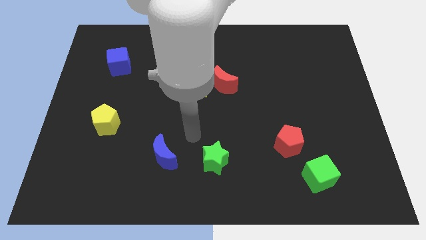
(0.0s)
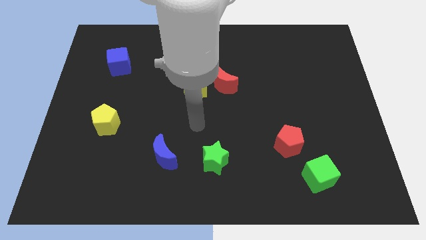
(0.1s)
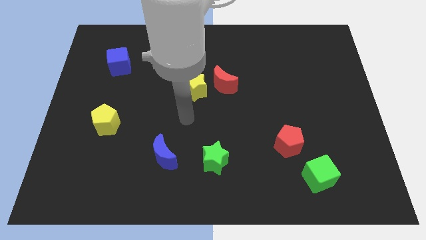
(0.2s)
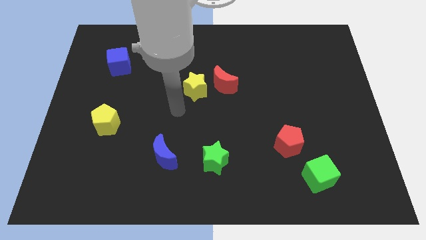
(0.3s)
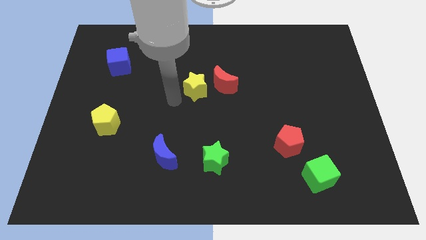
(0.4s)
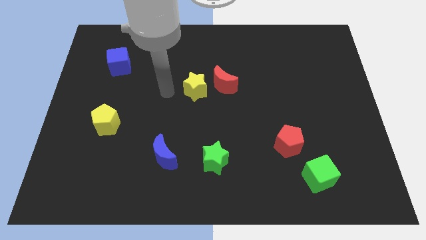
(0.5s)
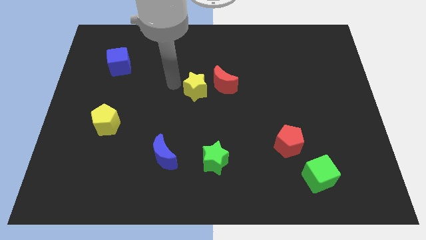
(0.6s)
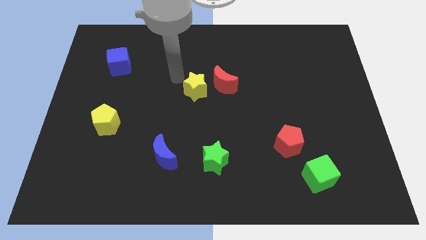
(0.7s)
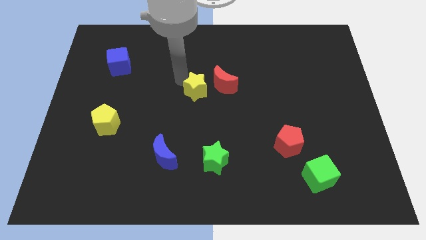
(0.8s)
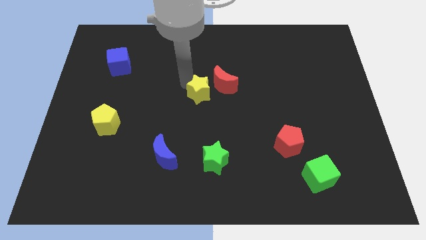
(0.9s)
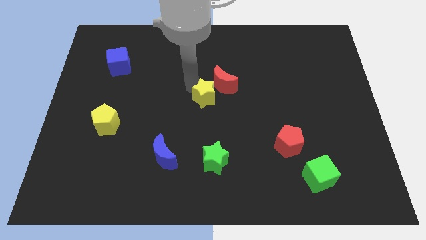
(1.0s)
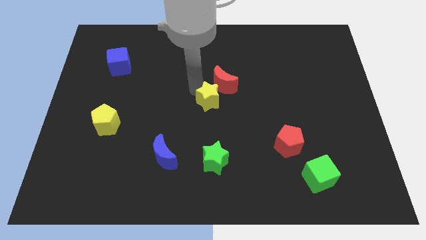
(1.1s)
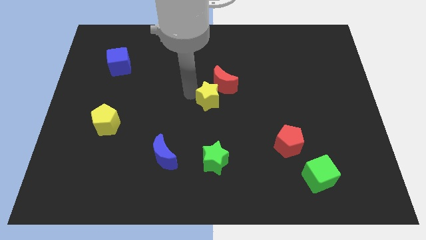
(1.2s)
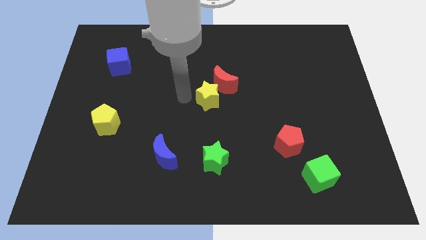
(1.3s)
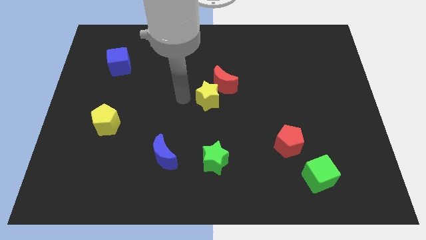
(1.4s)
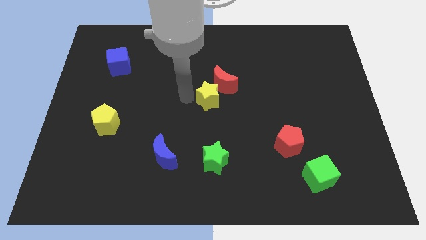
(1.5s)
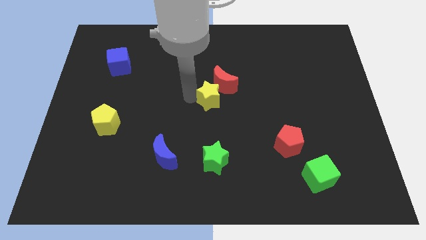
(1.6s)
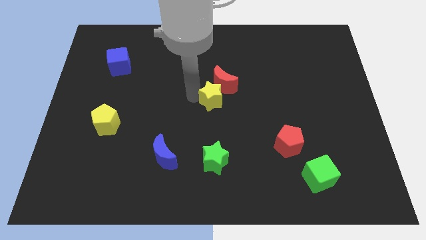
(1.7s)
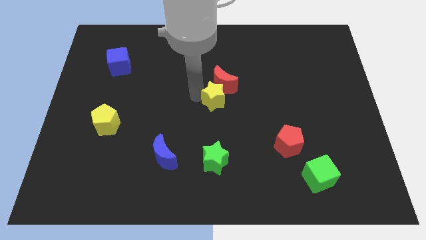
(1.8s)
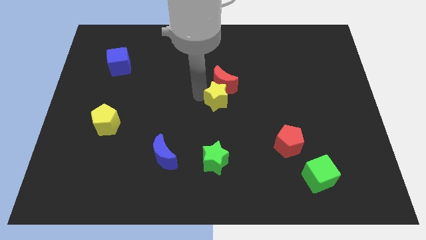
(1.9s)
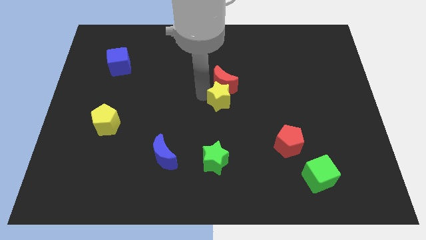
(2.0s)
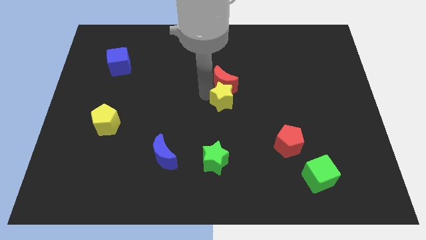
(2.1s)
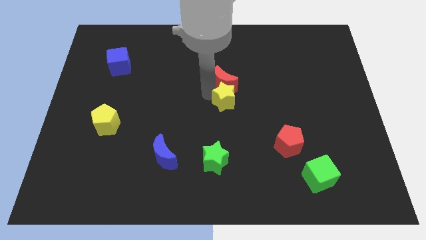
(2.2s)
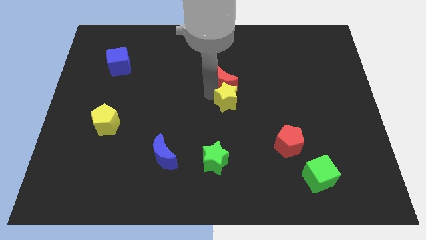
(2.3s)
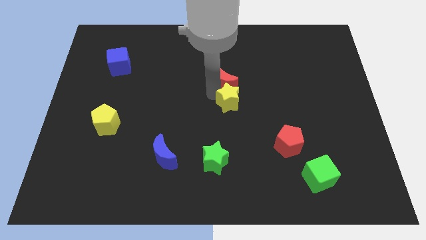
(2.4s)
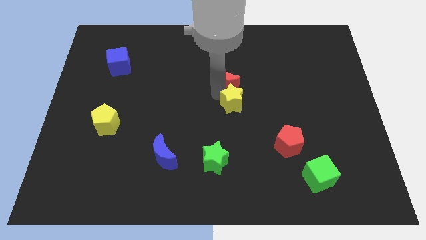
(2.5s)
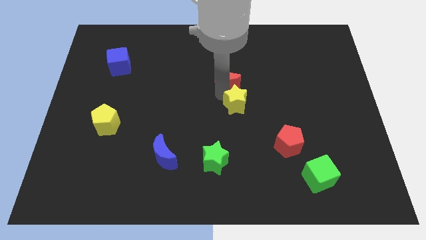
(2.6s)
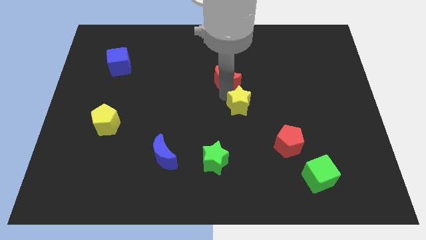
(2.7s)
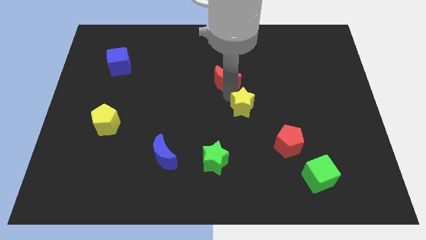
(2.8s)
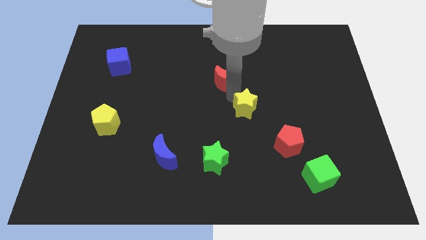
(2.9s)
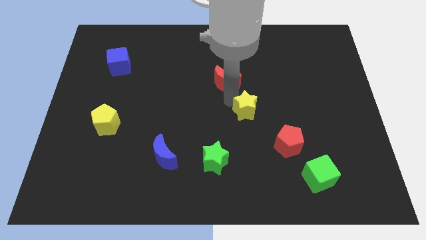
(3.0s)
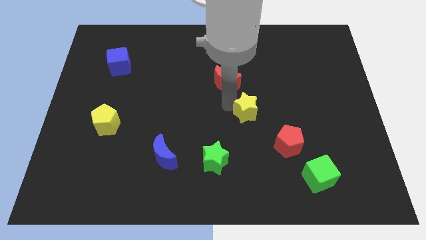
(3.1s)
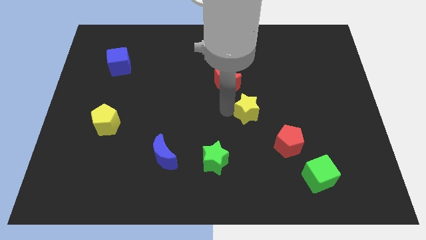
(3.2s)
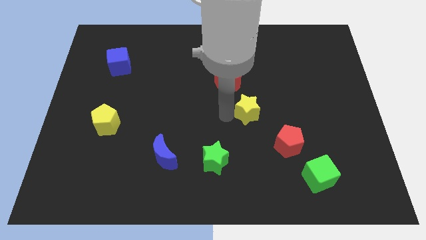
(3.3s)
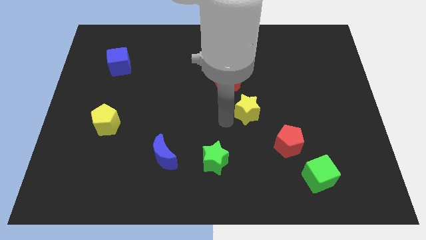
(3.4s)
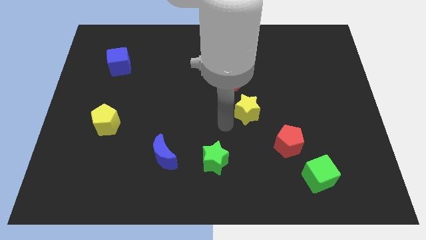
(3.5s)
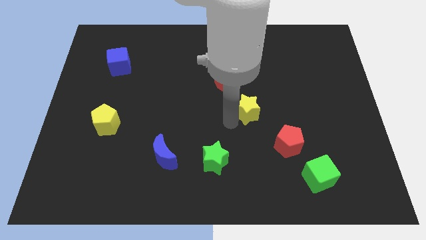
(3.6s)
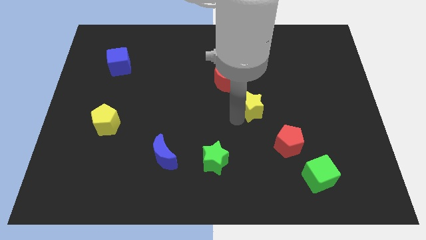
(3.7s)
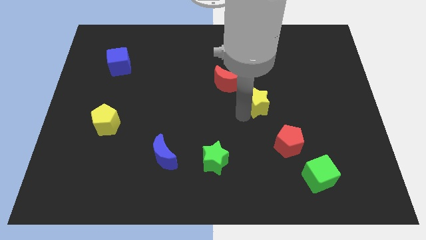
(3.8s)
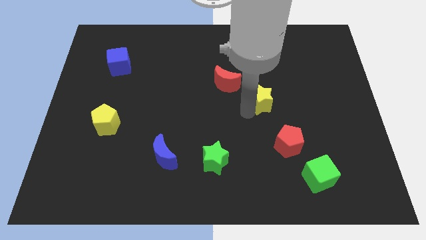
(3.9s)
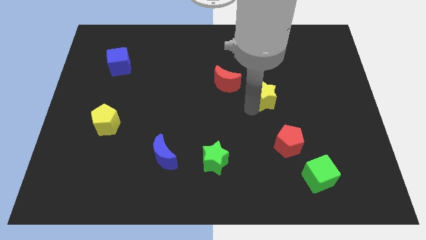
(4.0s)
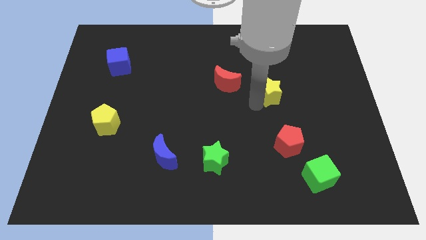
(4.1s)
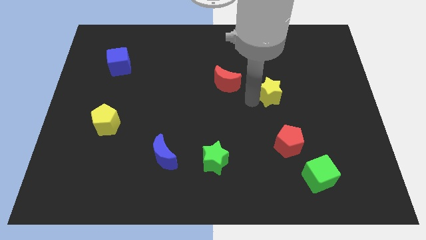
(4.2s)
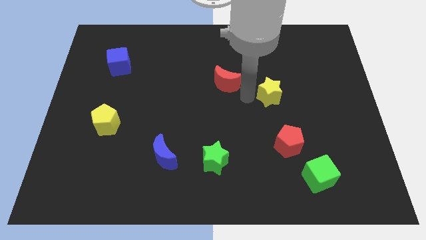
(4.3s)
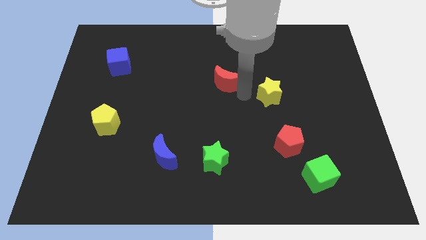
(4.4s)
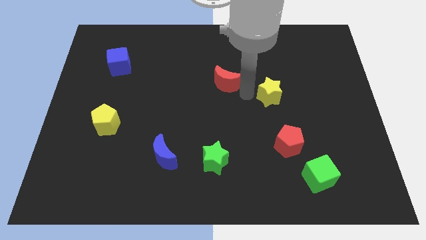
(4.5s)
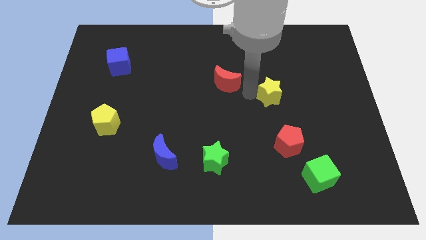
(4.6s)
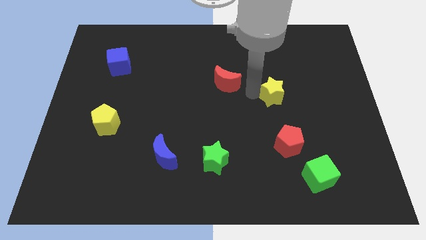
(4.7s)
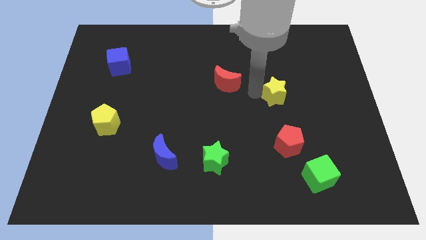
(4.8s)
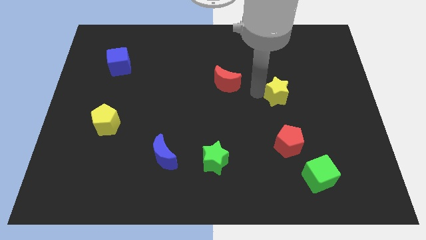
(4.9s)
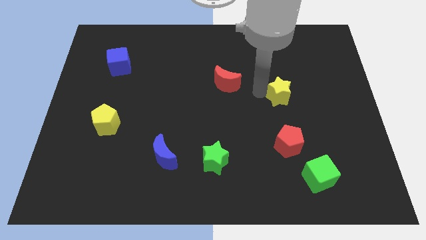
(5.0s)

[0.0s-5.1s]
move the yellow star to the right

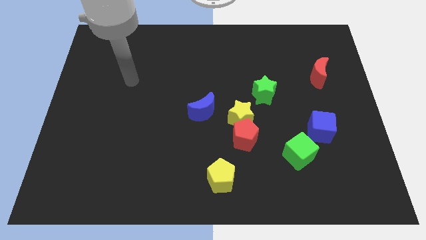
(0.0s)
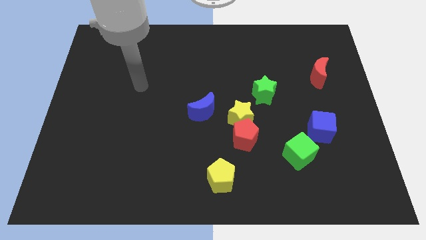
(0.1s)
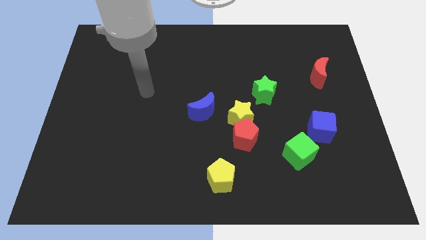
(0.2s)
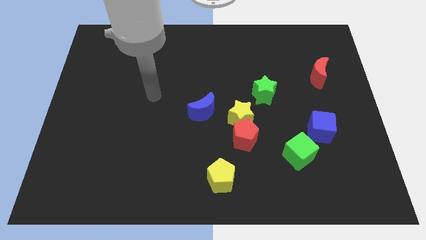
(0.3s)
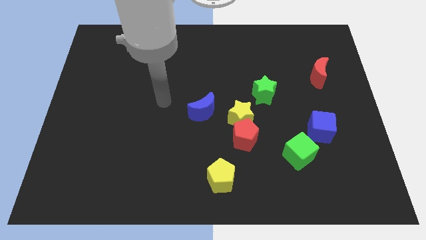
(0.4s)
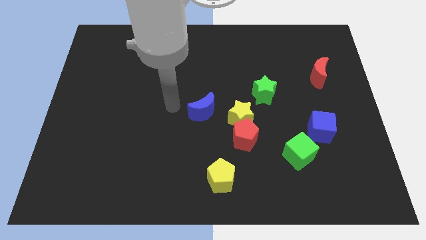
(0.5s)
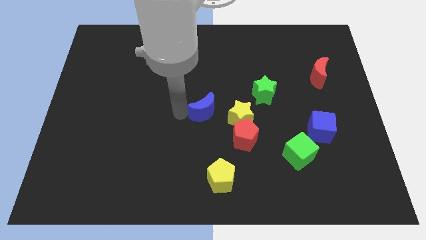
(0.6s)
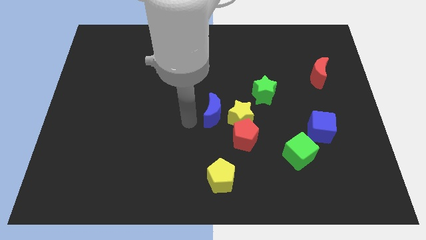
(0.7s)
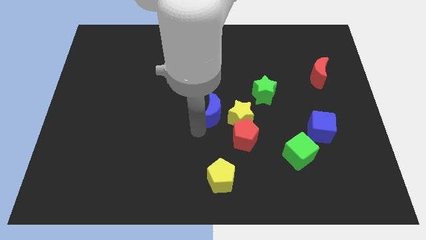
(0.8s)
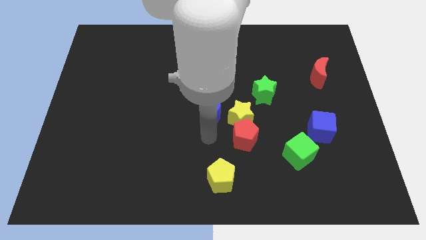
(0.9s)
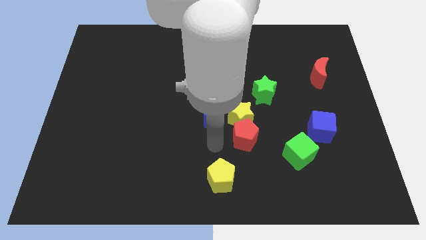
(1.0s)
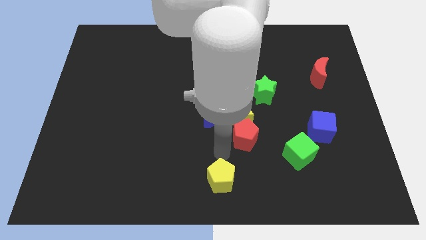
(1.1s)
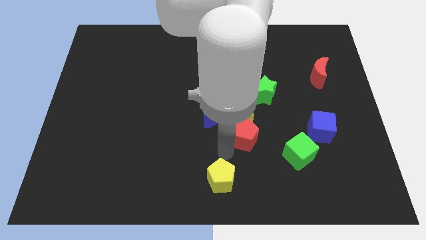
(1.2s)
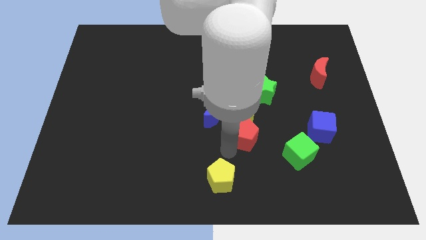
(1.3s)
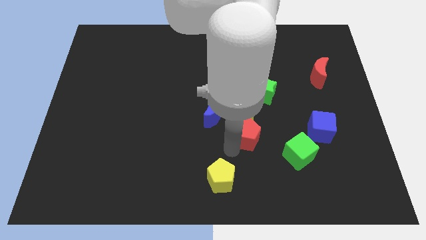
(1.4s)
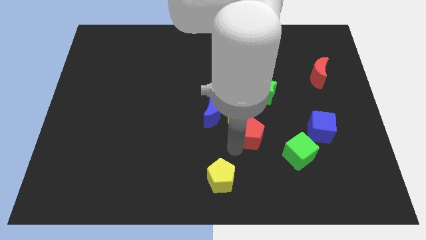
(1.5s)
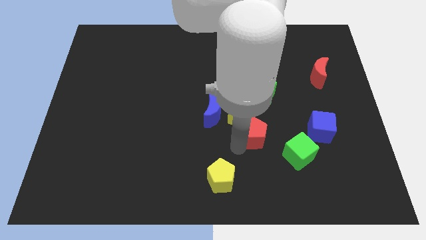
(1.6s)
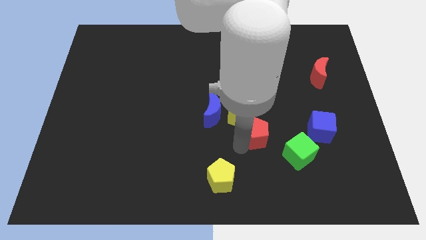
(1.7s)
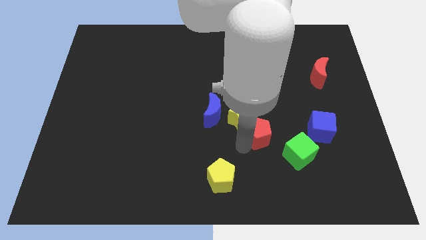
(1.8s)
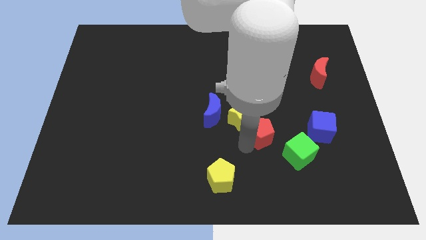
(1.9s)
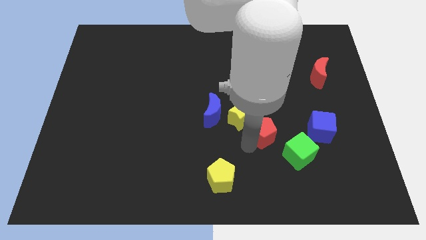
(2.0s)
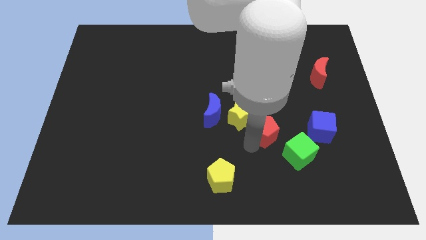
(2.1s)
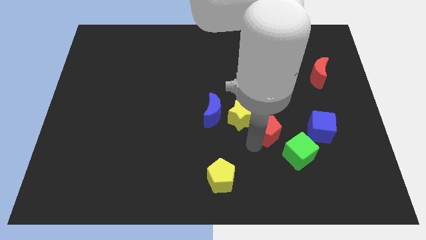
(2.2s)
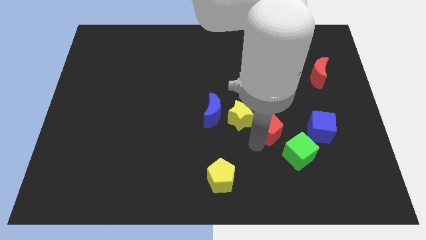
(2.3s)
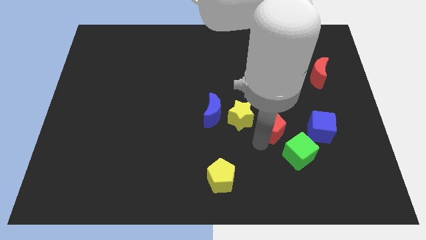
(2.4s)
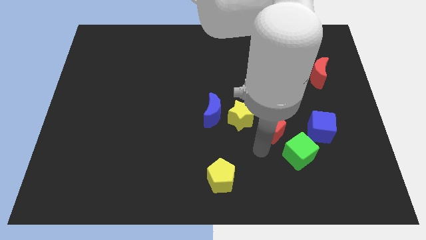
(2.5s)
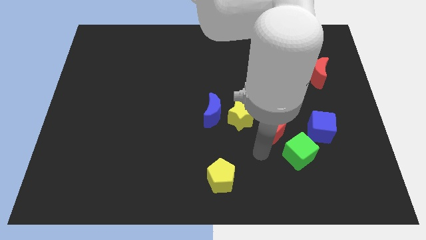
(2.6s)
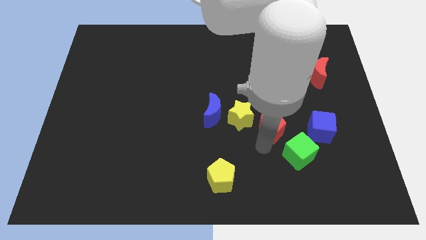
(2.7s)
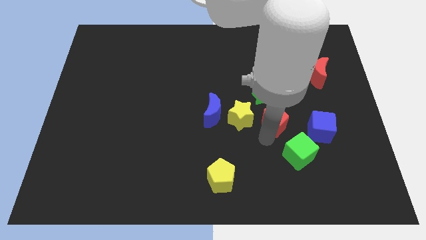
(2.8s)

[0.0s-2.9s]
move the red pentagon a little up and right
